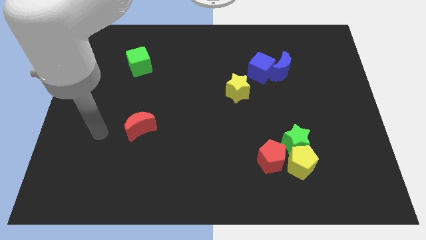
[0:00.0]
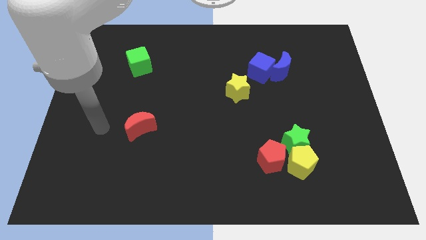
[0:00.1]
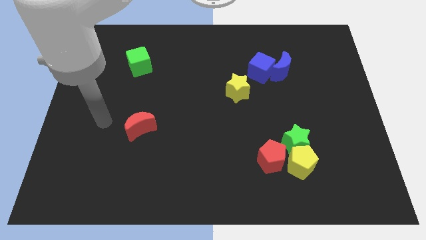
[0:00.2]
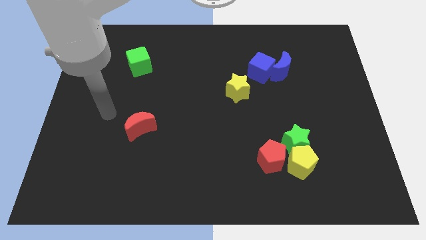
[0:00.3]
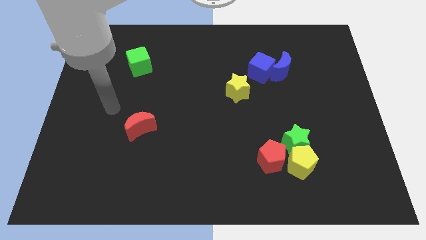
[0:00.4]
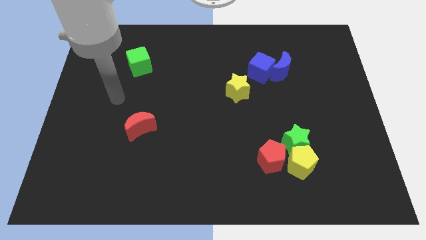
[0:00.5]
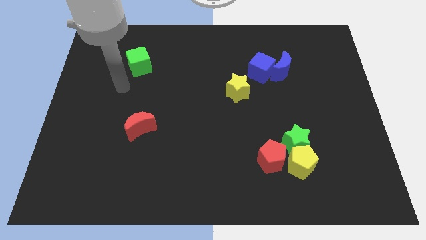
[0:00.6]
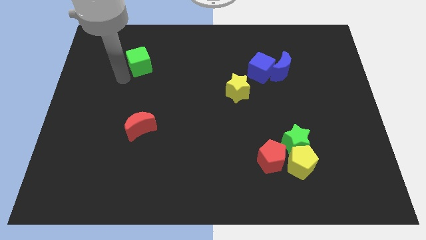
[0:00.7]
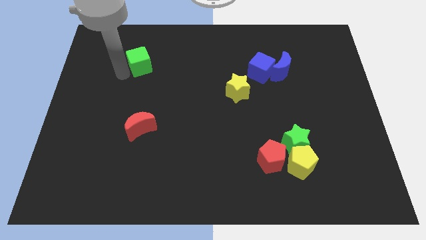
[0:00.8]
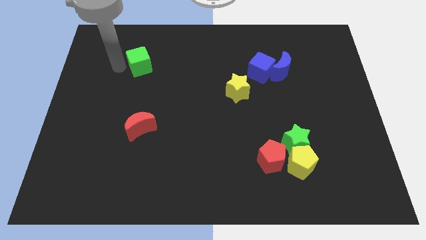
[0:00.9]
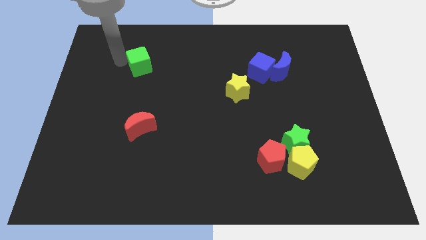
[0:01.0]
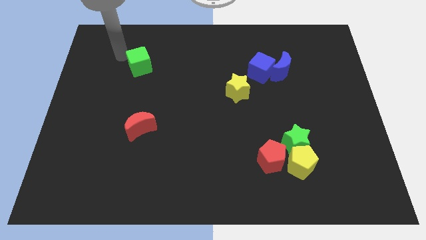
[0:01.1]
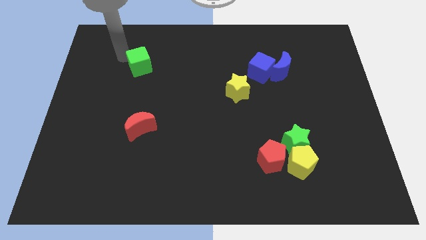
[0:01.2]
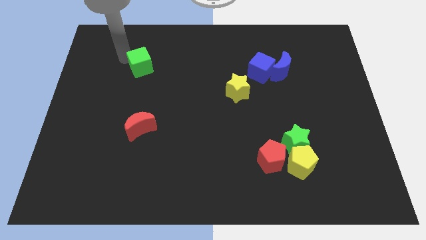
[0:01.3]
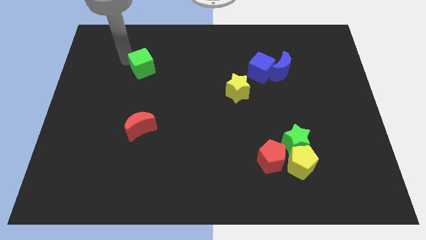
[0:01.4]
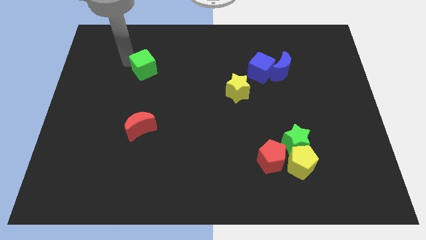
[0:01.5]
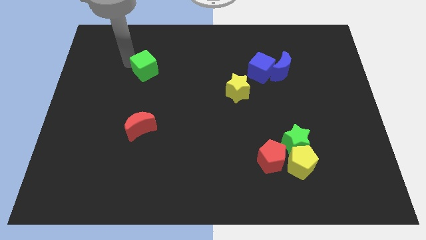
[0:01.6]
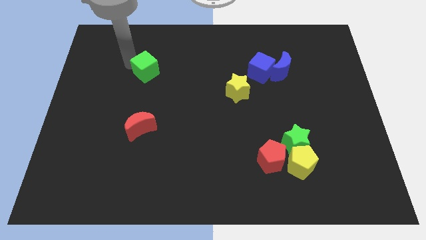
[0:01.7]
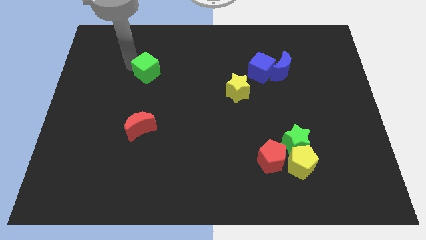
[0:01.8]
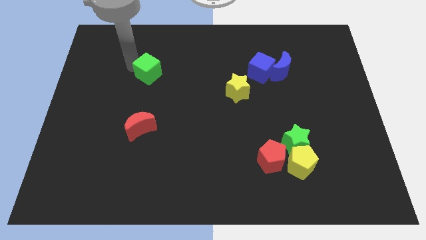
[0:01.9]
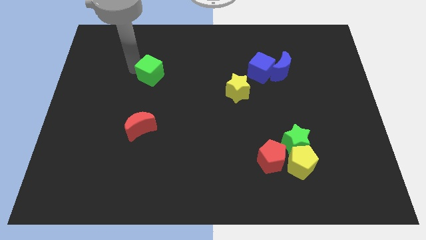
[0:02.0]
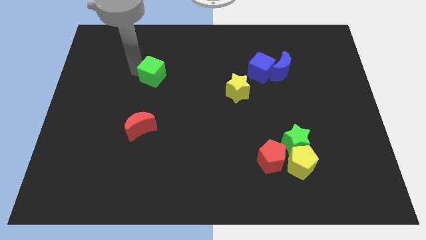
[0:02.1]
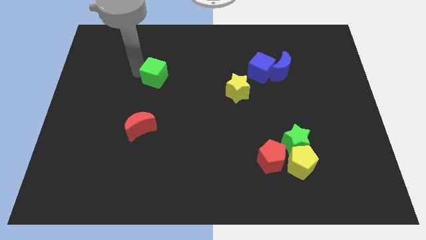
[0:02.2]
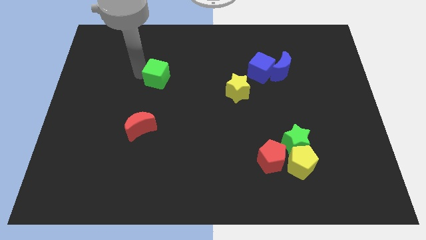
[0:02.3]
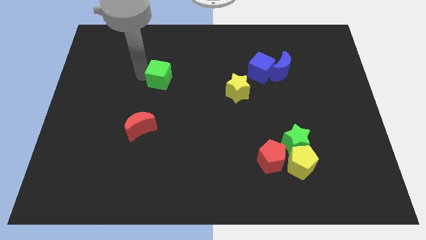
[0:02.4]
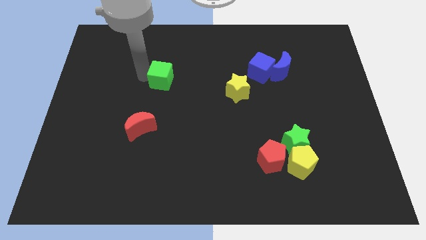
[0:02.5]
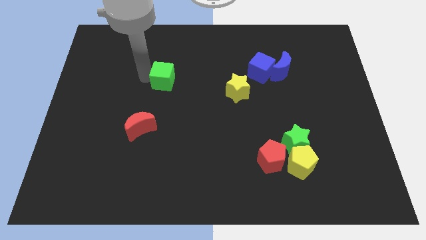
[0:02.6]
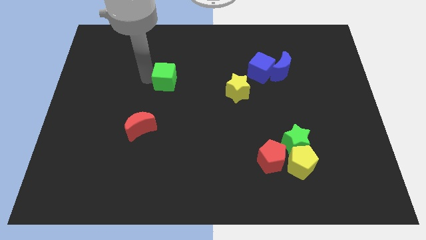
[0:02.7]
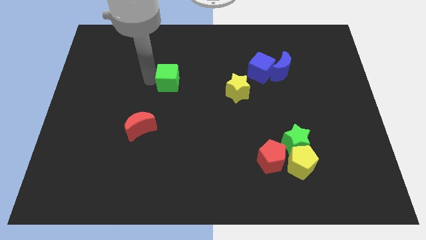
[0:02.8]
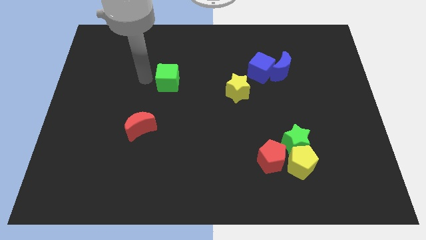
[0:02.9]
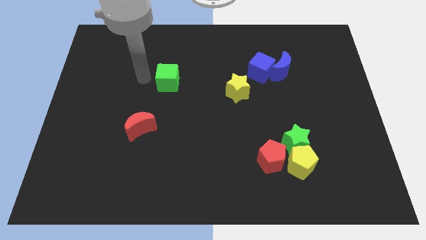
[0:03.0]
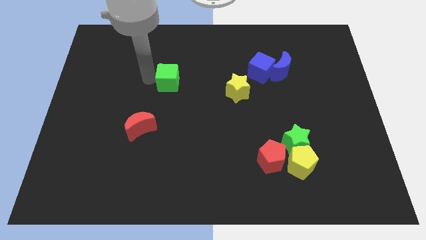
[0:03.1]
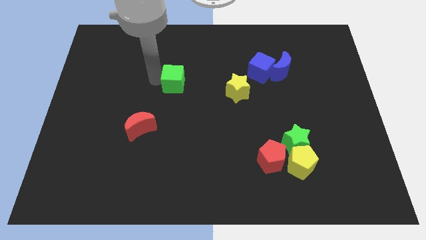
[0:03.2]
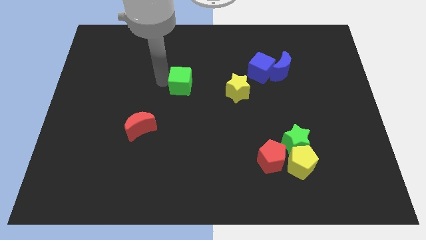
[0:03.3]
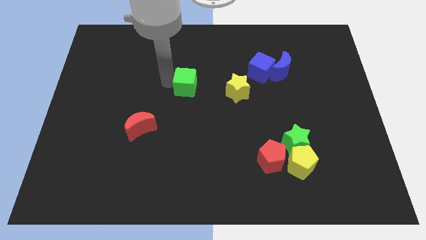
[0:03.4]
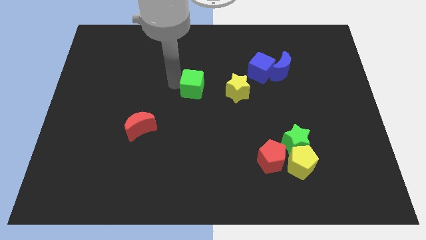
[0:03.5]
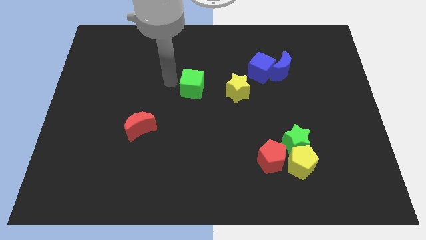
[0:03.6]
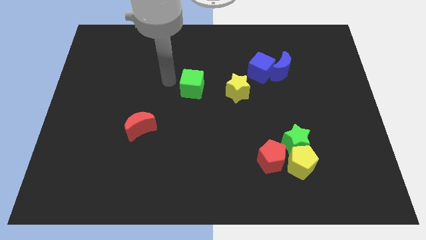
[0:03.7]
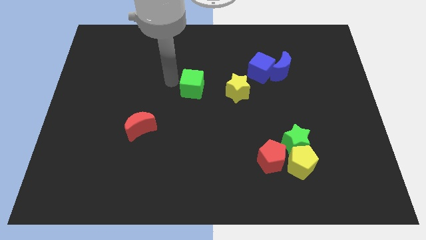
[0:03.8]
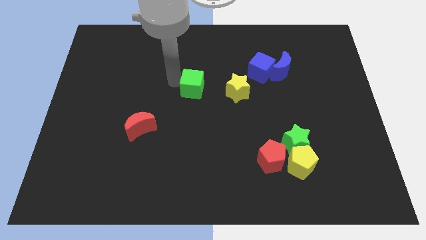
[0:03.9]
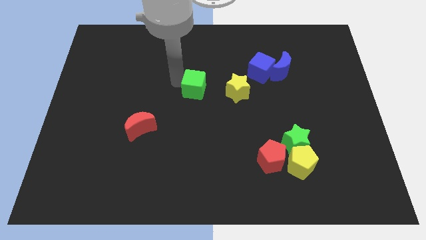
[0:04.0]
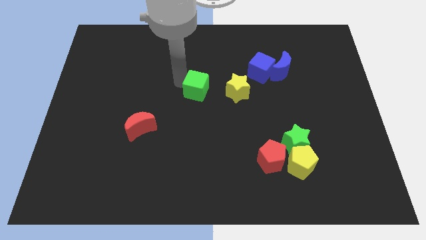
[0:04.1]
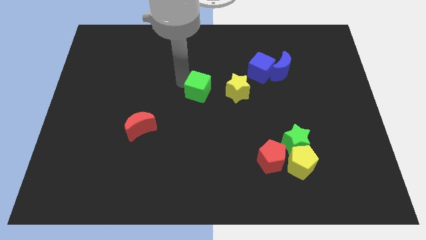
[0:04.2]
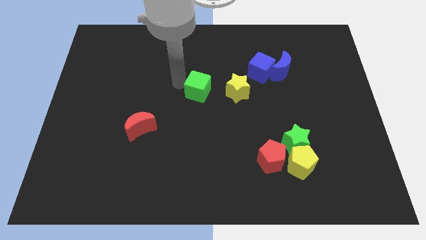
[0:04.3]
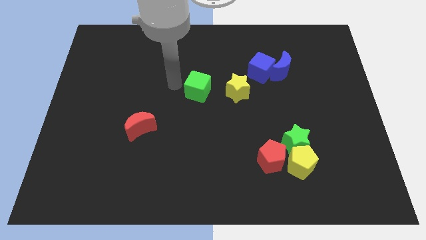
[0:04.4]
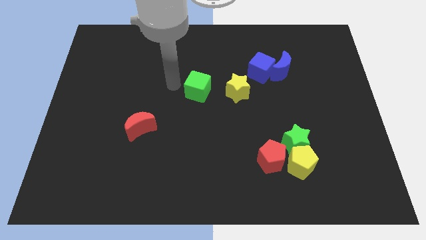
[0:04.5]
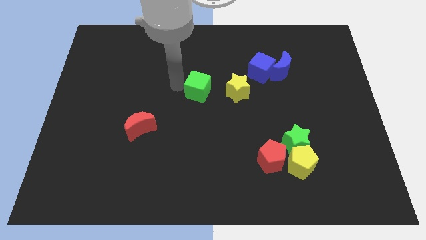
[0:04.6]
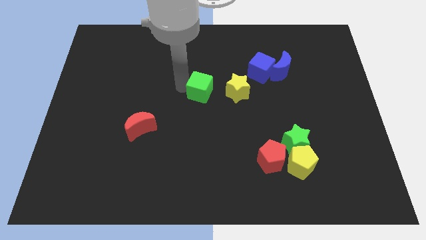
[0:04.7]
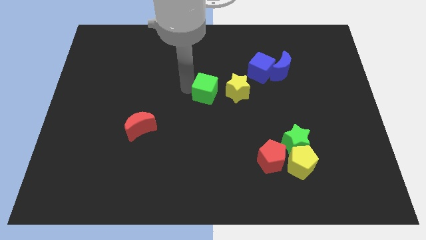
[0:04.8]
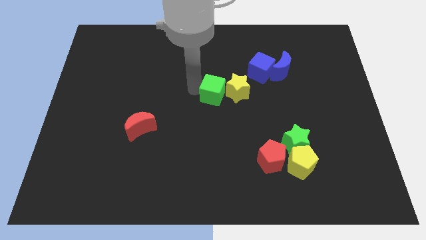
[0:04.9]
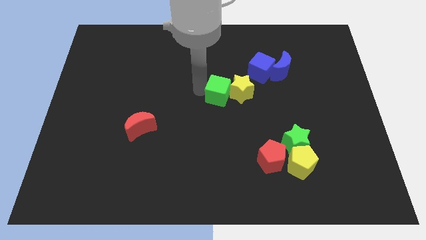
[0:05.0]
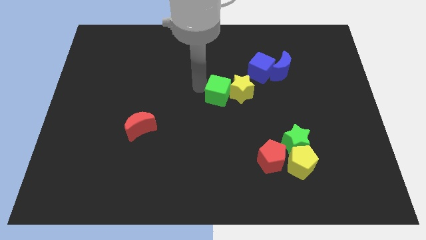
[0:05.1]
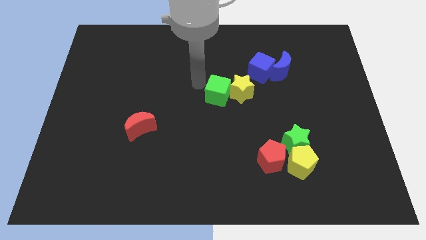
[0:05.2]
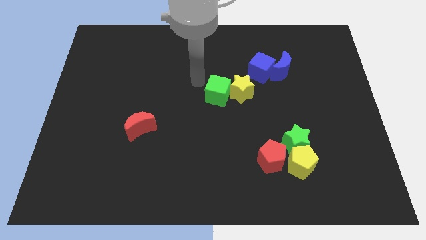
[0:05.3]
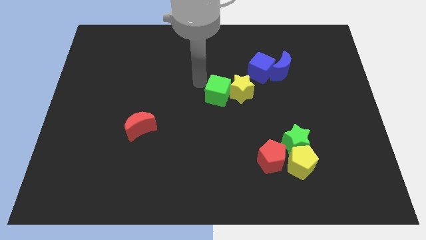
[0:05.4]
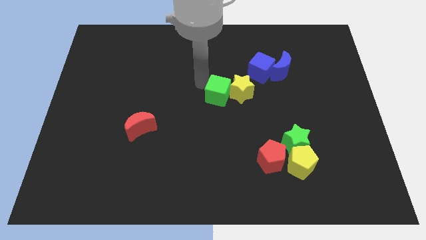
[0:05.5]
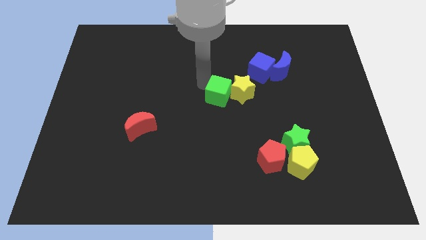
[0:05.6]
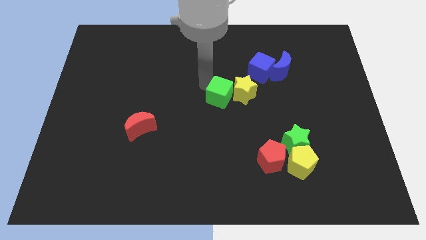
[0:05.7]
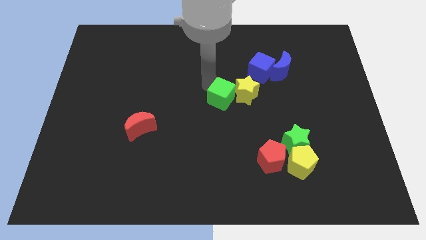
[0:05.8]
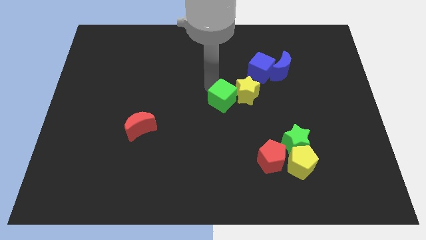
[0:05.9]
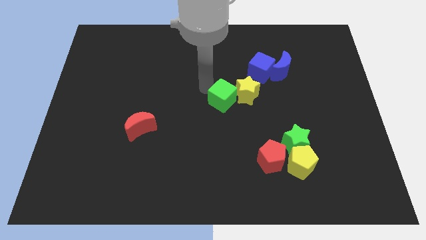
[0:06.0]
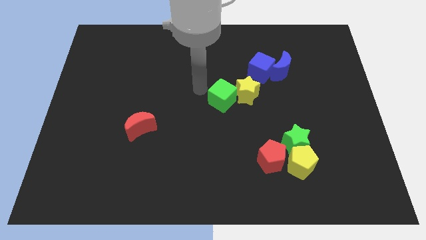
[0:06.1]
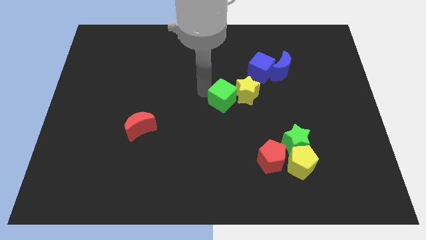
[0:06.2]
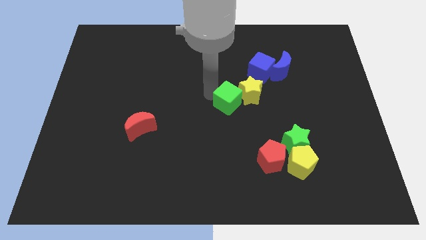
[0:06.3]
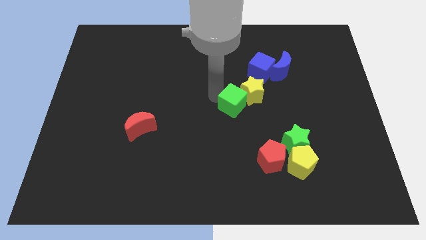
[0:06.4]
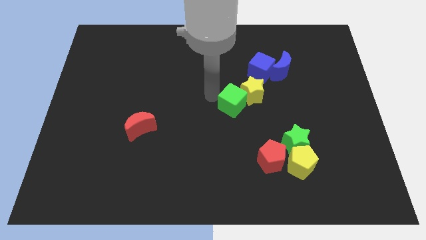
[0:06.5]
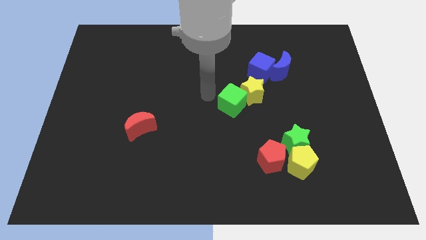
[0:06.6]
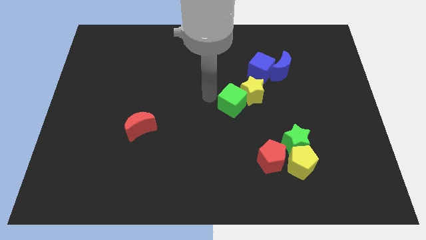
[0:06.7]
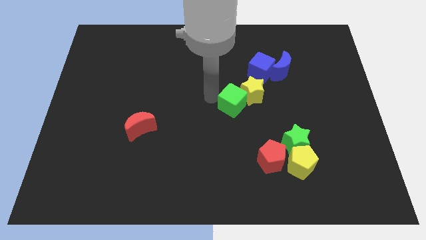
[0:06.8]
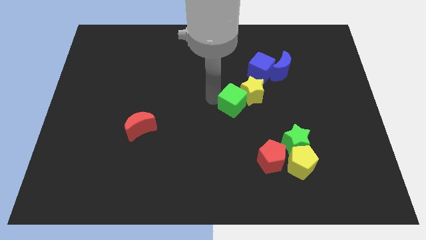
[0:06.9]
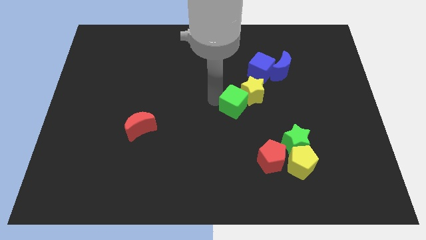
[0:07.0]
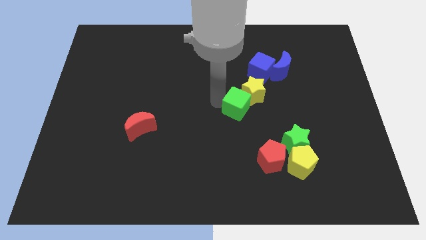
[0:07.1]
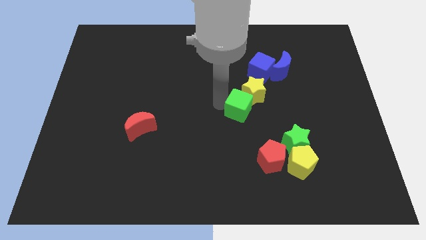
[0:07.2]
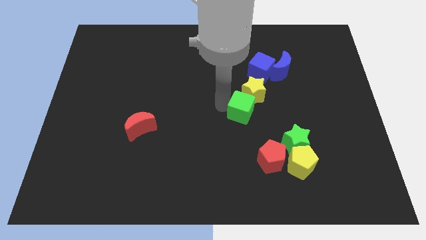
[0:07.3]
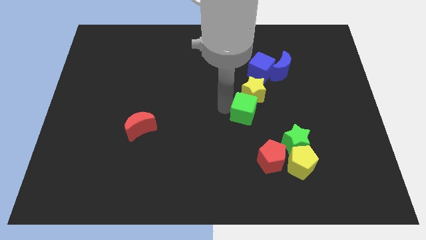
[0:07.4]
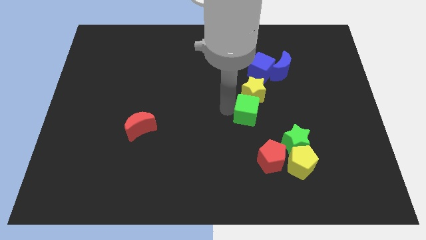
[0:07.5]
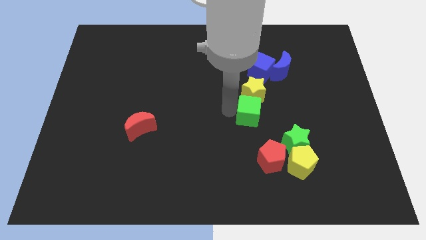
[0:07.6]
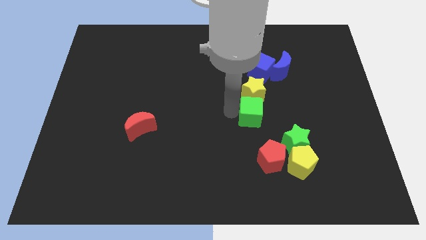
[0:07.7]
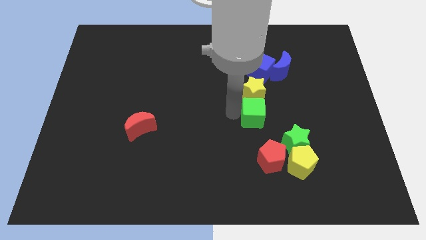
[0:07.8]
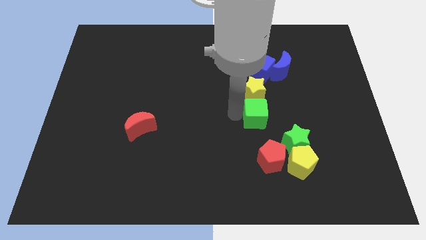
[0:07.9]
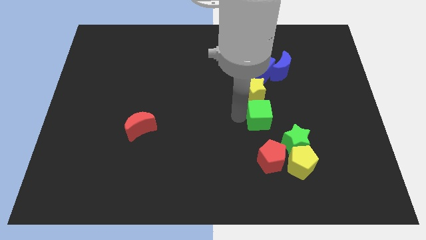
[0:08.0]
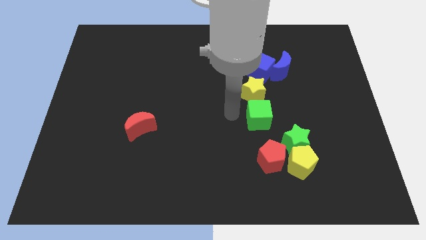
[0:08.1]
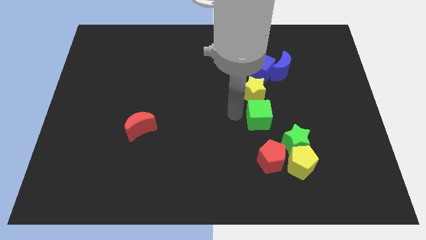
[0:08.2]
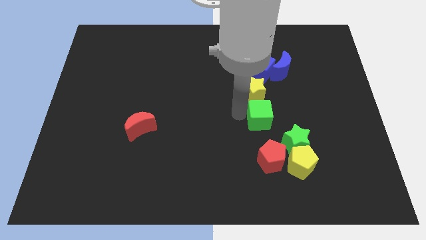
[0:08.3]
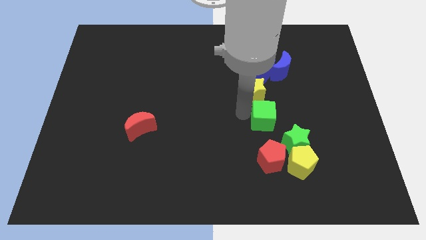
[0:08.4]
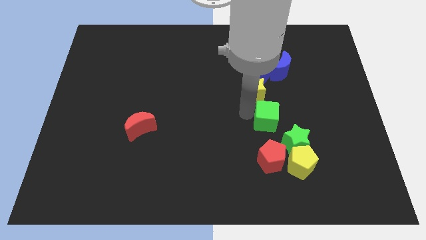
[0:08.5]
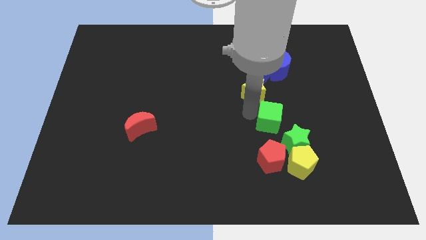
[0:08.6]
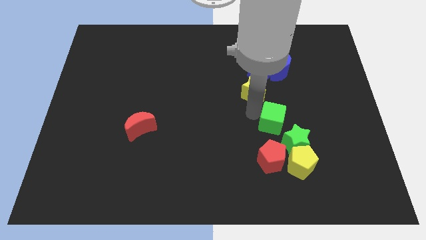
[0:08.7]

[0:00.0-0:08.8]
put the green cube above the yellow pentagon
